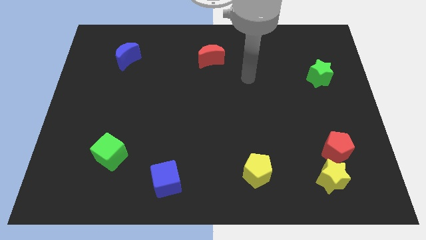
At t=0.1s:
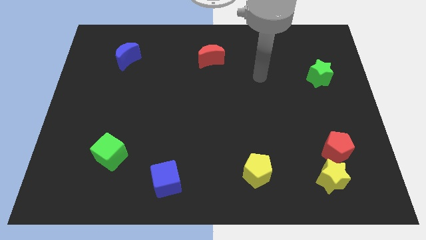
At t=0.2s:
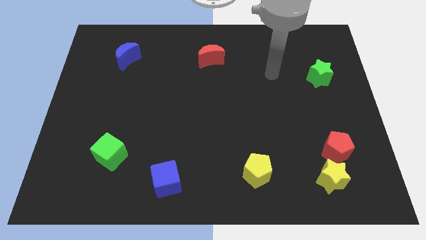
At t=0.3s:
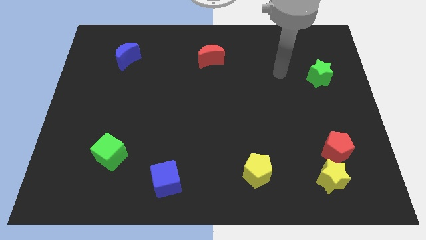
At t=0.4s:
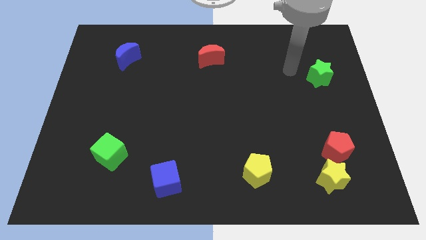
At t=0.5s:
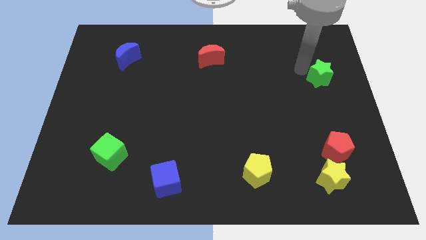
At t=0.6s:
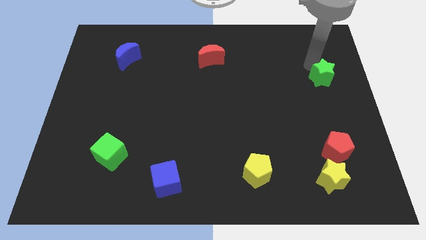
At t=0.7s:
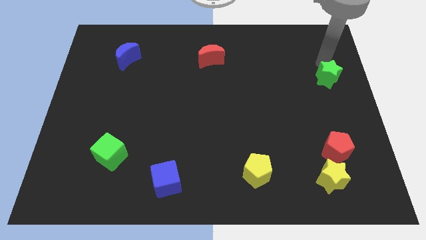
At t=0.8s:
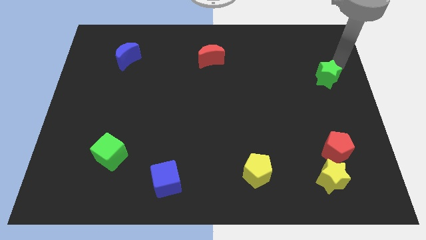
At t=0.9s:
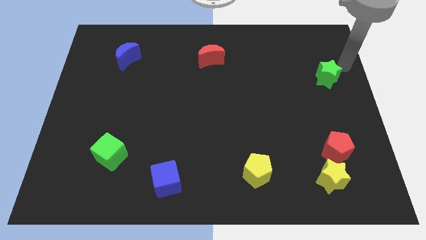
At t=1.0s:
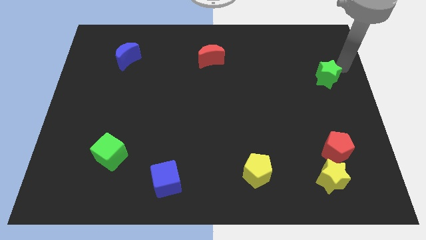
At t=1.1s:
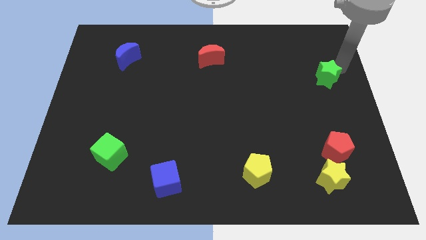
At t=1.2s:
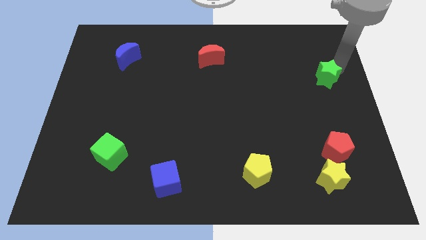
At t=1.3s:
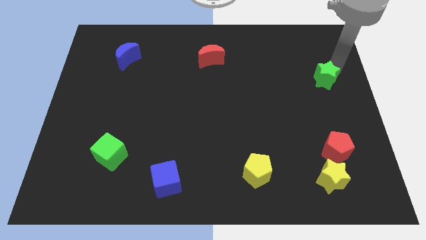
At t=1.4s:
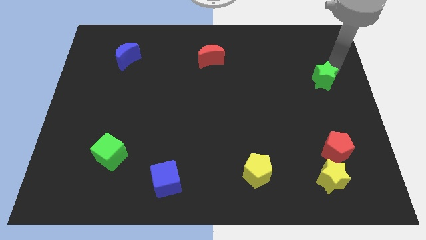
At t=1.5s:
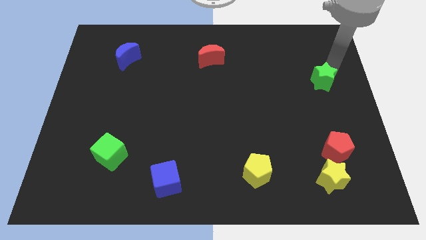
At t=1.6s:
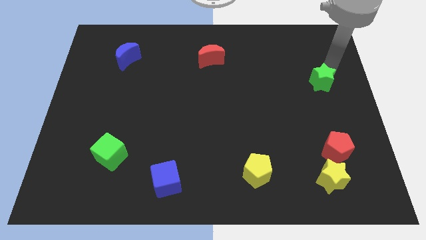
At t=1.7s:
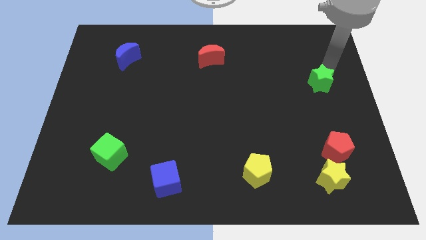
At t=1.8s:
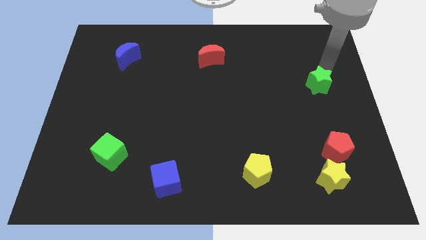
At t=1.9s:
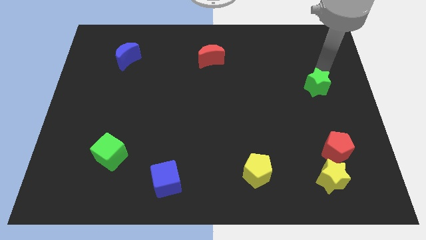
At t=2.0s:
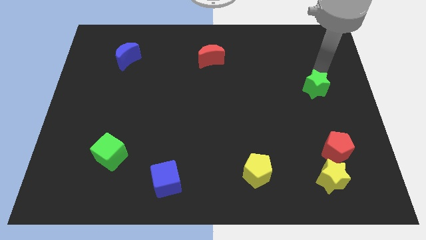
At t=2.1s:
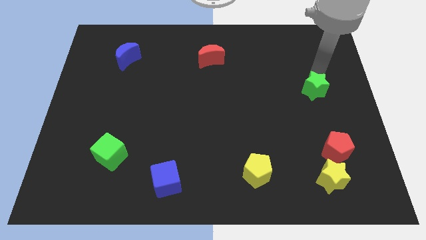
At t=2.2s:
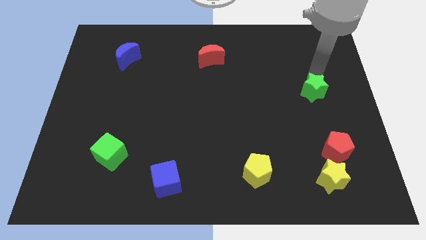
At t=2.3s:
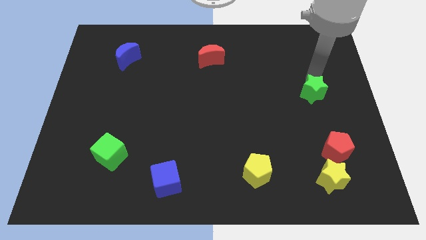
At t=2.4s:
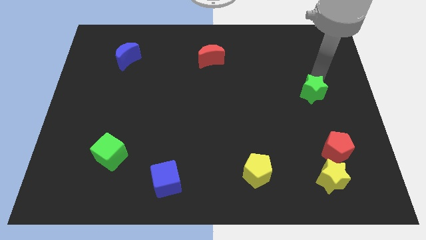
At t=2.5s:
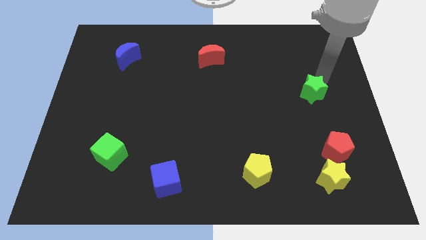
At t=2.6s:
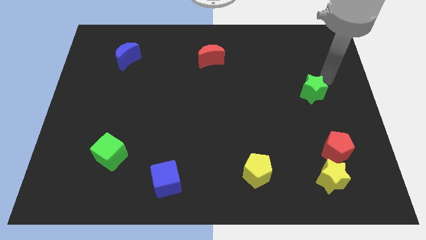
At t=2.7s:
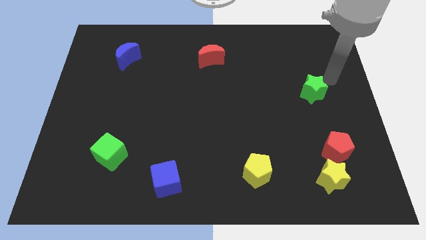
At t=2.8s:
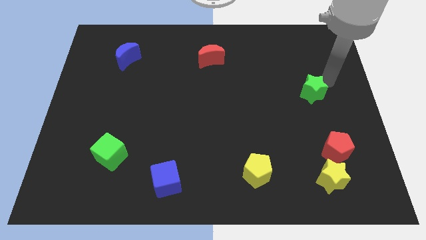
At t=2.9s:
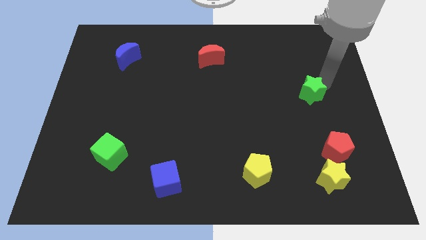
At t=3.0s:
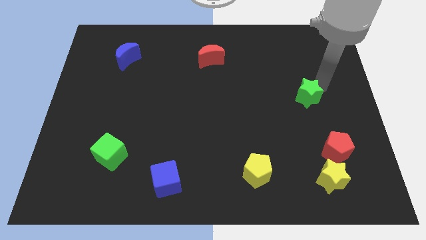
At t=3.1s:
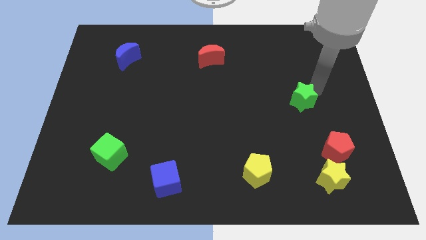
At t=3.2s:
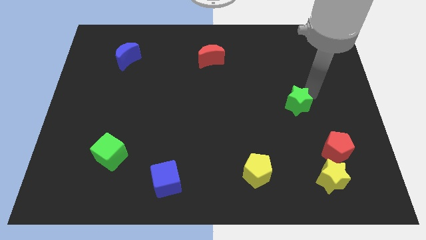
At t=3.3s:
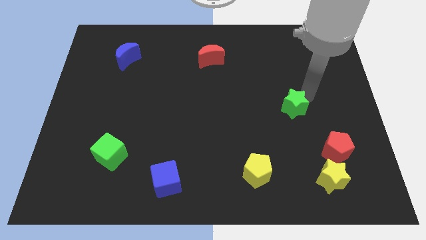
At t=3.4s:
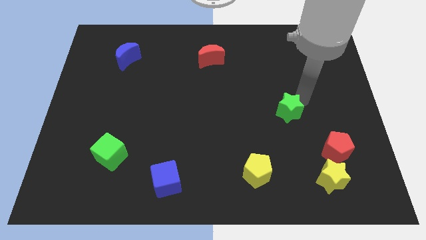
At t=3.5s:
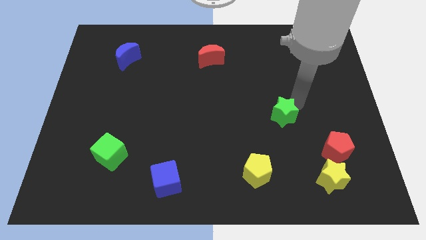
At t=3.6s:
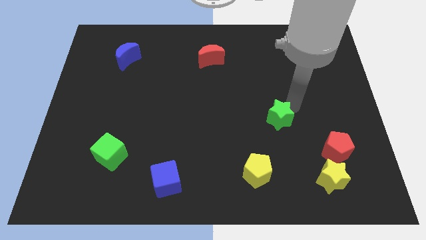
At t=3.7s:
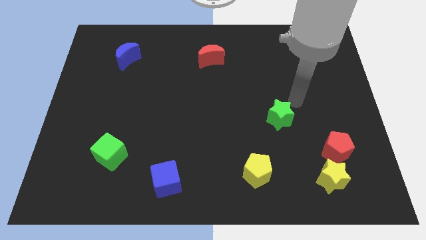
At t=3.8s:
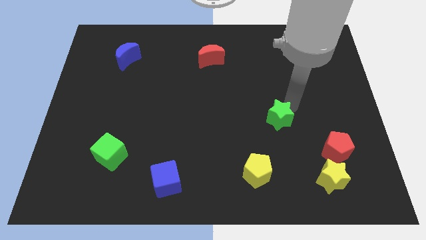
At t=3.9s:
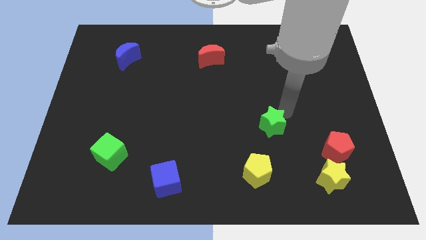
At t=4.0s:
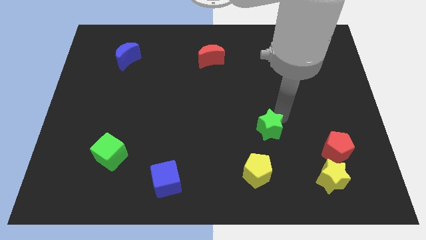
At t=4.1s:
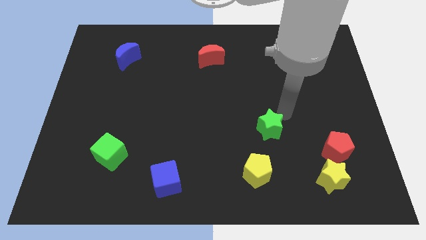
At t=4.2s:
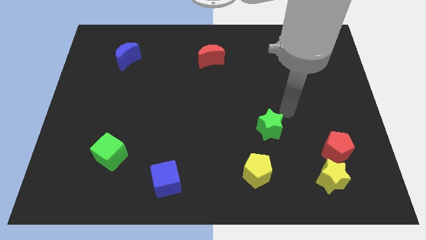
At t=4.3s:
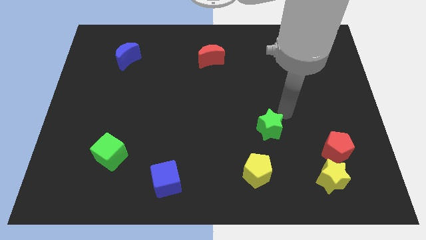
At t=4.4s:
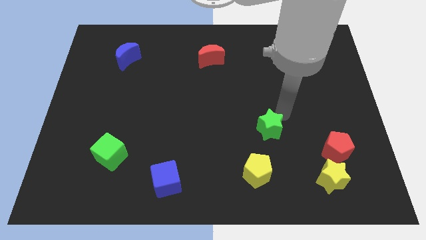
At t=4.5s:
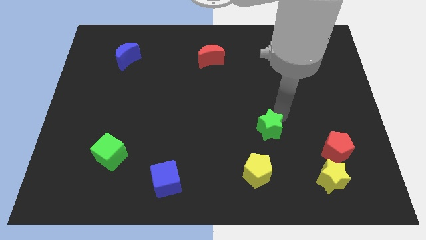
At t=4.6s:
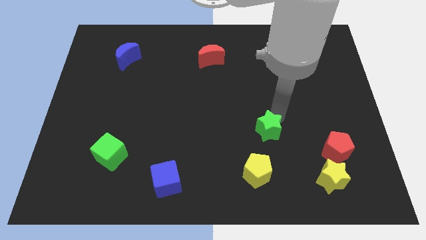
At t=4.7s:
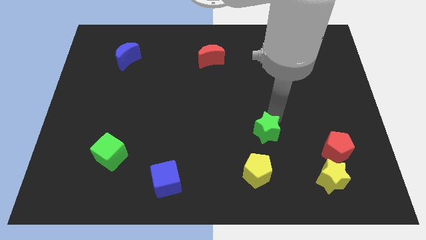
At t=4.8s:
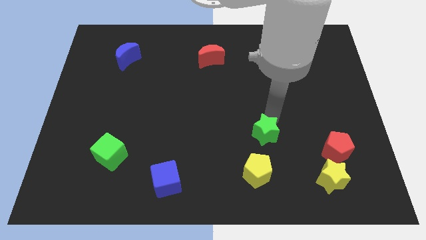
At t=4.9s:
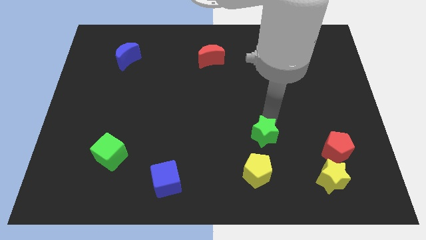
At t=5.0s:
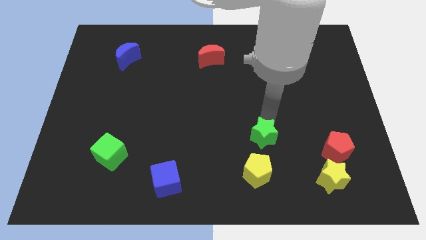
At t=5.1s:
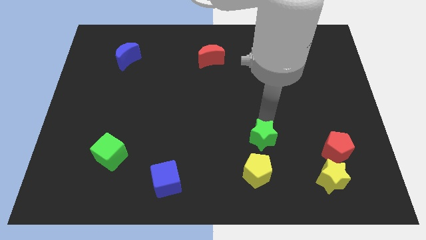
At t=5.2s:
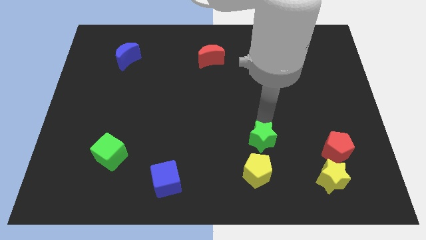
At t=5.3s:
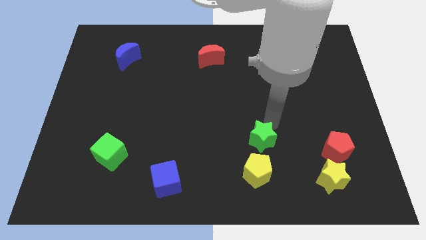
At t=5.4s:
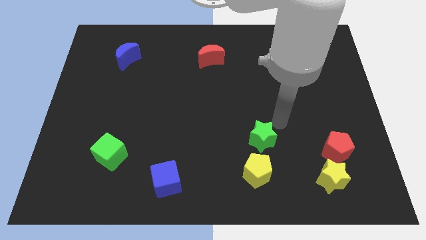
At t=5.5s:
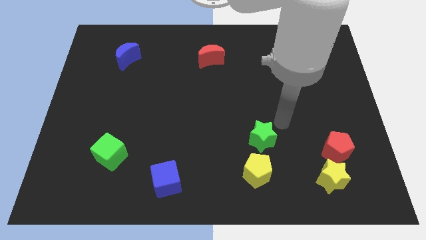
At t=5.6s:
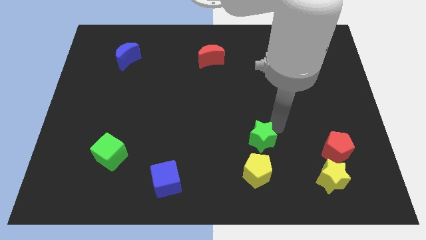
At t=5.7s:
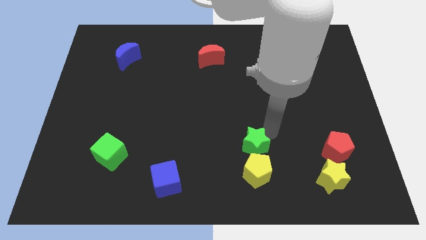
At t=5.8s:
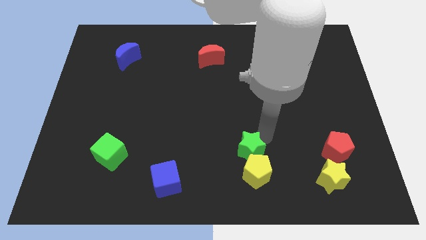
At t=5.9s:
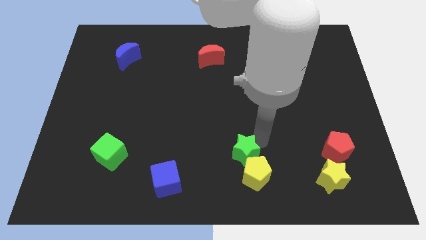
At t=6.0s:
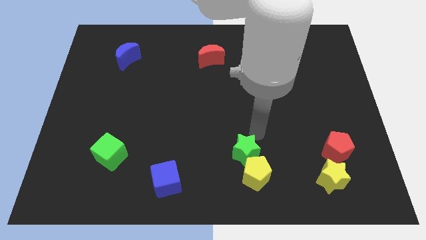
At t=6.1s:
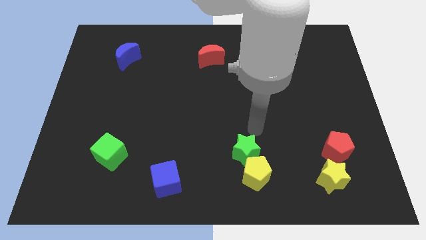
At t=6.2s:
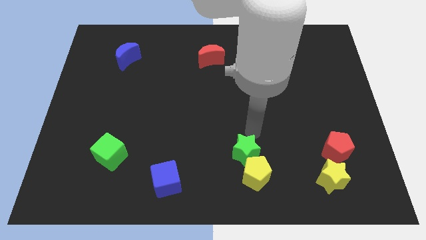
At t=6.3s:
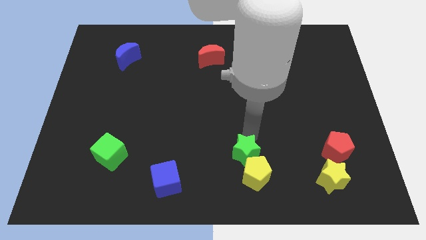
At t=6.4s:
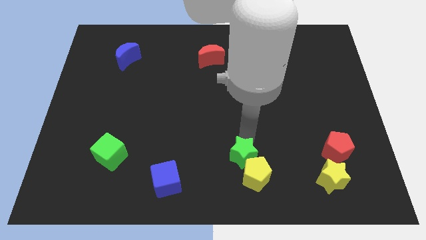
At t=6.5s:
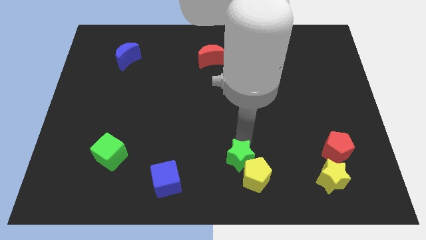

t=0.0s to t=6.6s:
put the green star to the bottom
